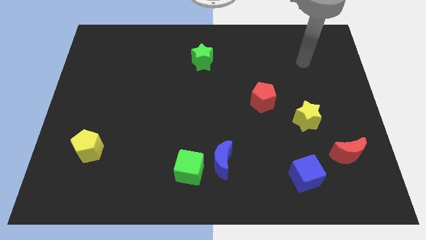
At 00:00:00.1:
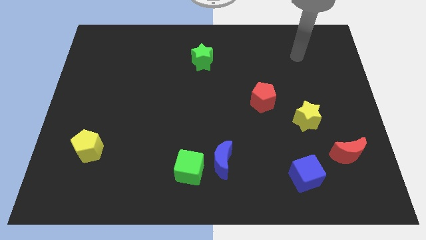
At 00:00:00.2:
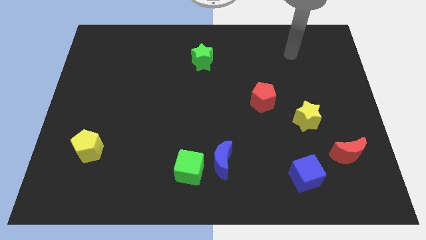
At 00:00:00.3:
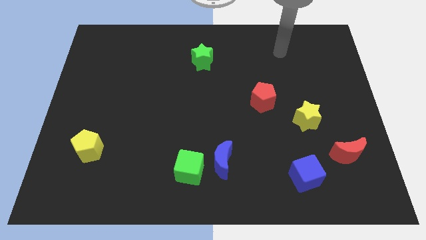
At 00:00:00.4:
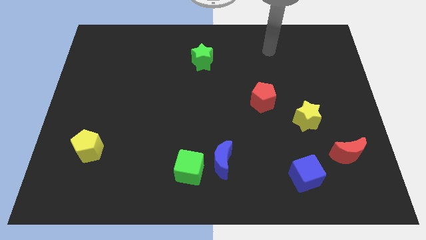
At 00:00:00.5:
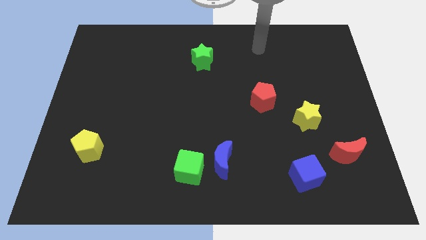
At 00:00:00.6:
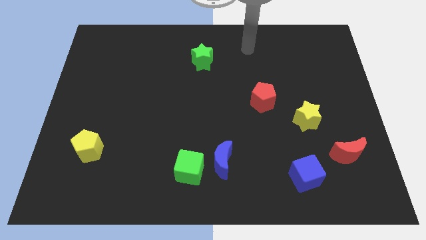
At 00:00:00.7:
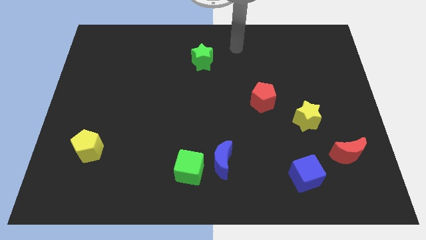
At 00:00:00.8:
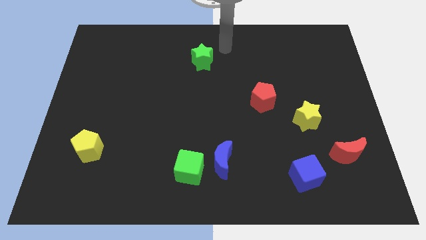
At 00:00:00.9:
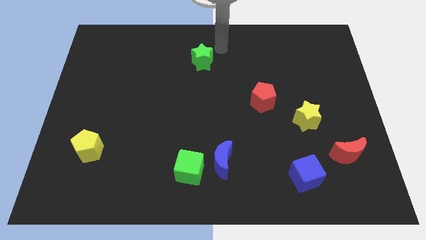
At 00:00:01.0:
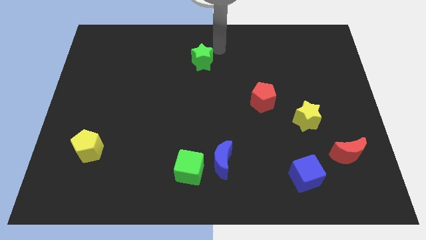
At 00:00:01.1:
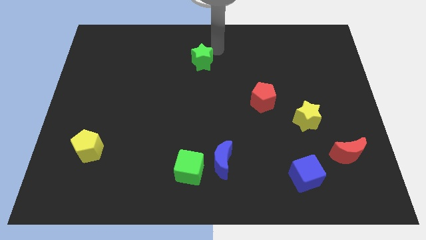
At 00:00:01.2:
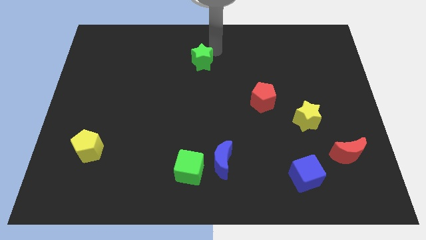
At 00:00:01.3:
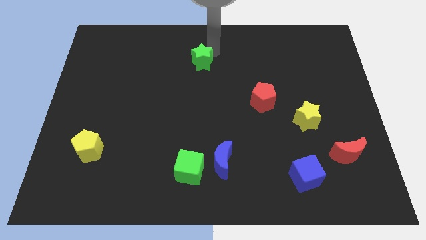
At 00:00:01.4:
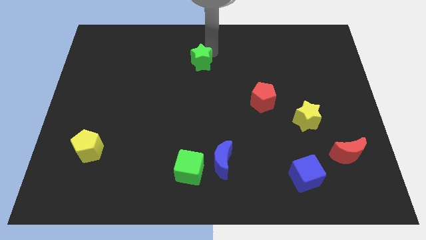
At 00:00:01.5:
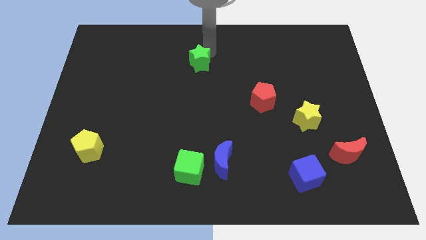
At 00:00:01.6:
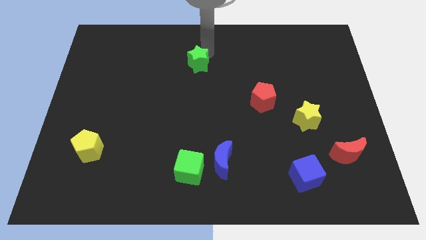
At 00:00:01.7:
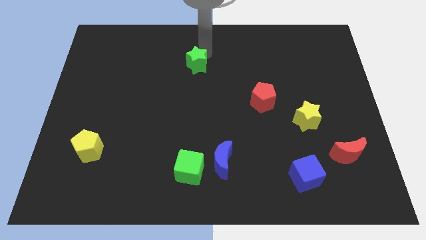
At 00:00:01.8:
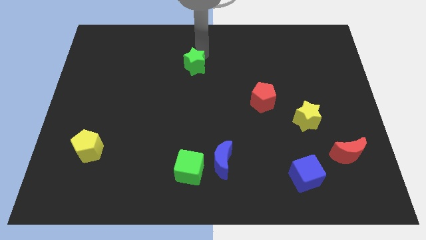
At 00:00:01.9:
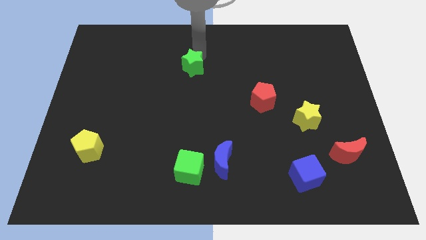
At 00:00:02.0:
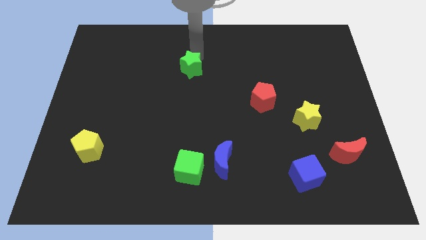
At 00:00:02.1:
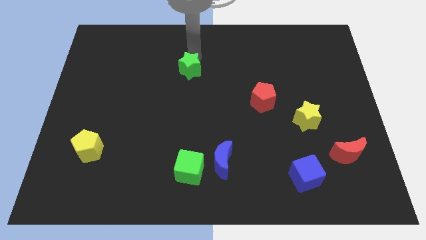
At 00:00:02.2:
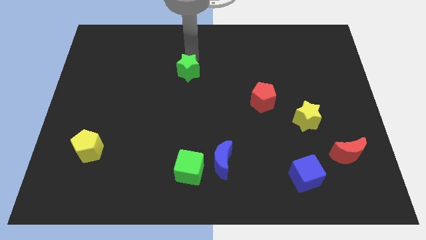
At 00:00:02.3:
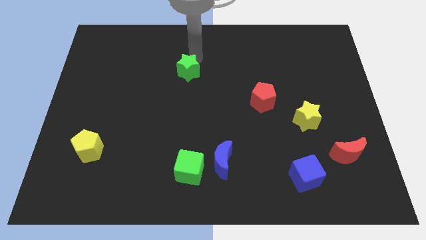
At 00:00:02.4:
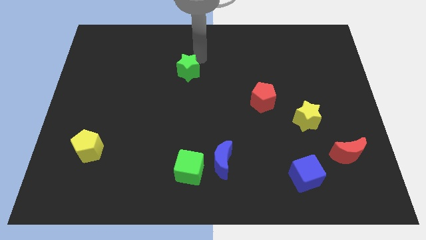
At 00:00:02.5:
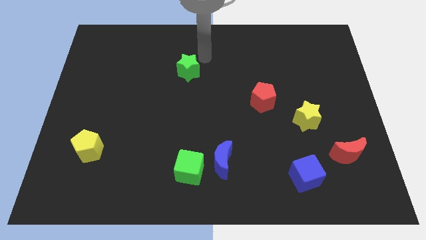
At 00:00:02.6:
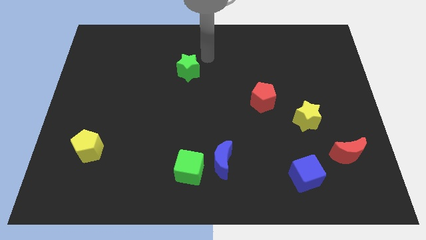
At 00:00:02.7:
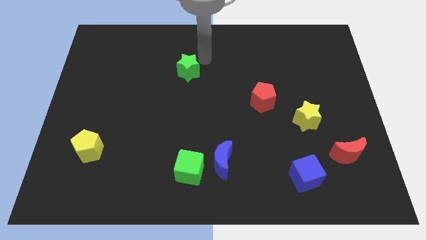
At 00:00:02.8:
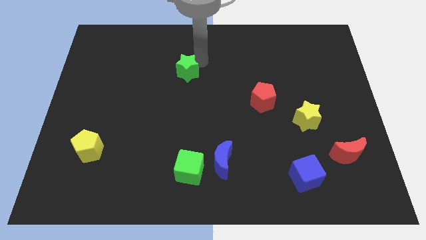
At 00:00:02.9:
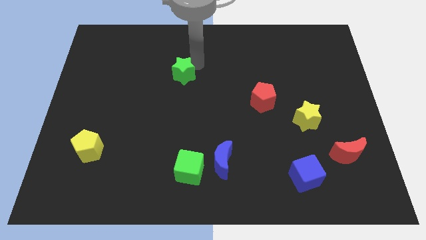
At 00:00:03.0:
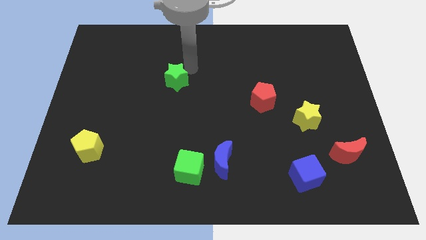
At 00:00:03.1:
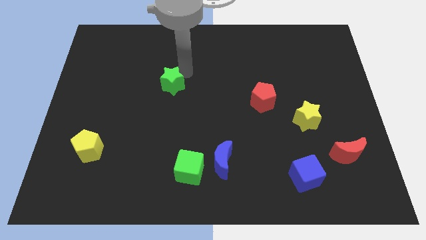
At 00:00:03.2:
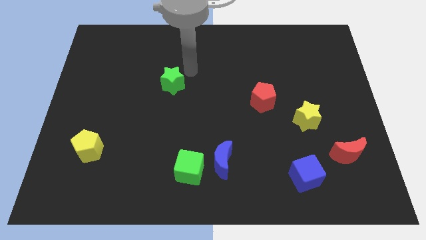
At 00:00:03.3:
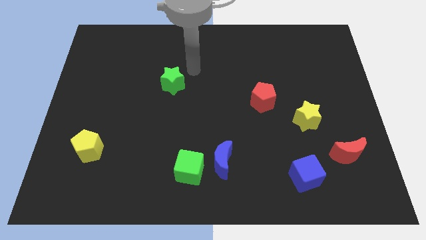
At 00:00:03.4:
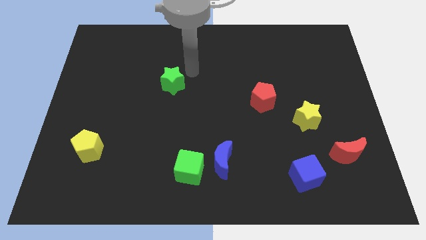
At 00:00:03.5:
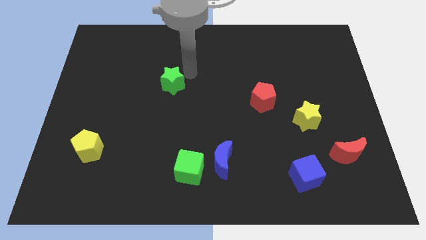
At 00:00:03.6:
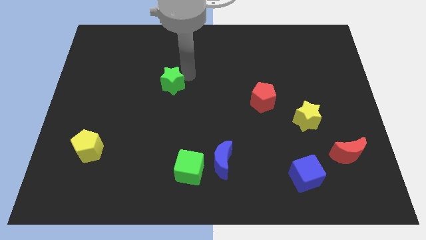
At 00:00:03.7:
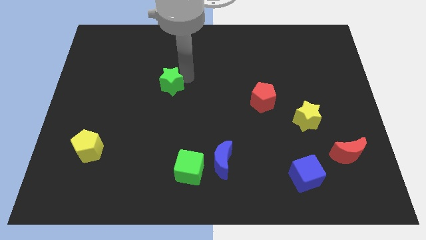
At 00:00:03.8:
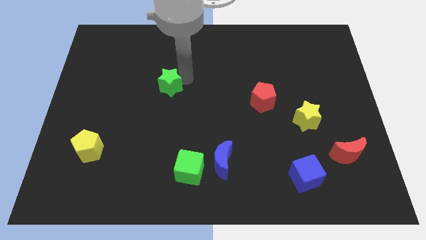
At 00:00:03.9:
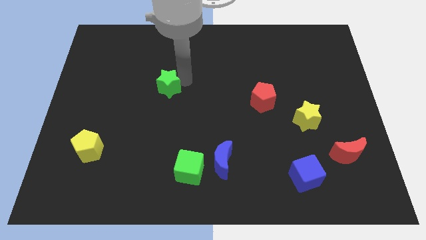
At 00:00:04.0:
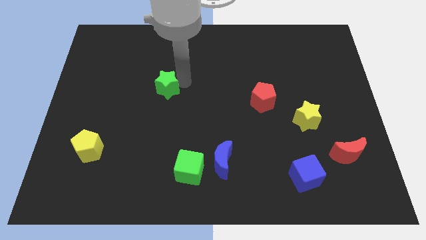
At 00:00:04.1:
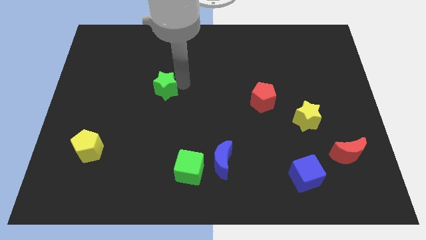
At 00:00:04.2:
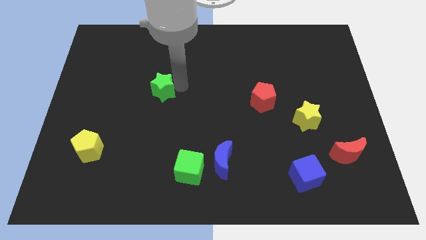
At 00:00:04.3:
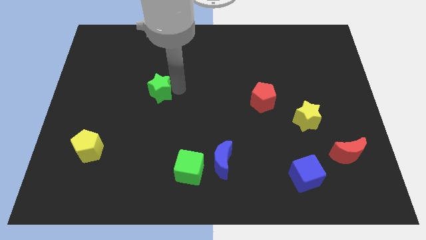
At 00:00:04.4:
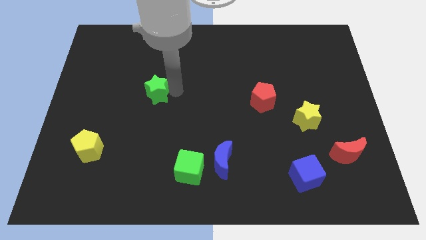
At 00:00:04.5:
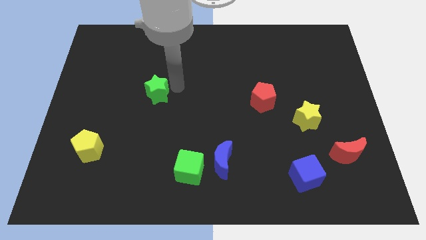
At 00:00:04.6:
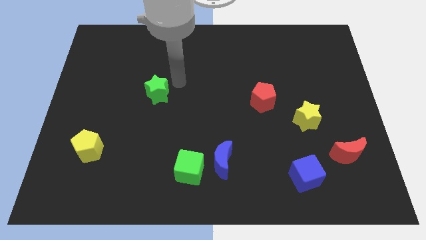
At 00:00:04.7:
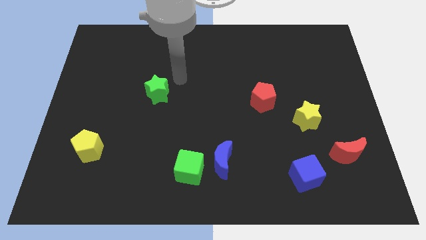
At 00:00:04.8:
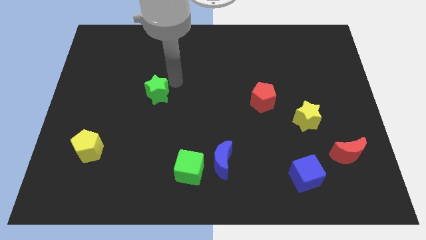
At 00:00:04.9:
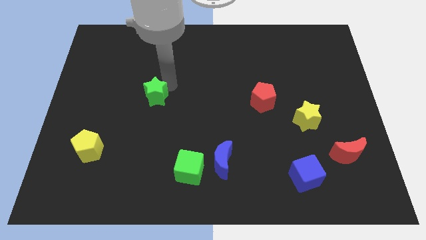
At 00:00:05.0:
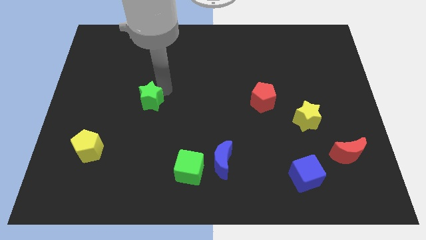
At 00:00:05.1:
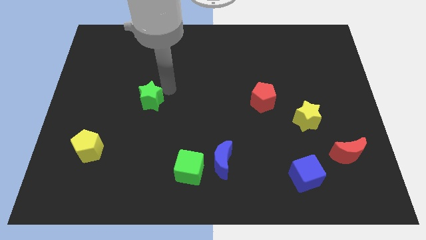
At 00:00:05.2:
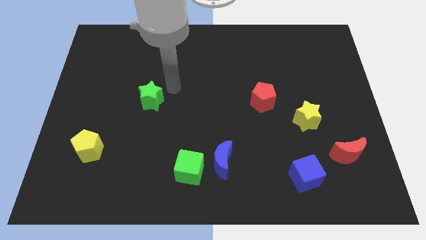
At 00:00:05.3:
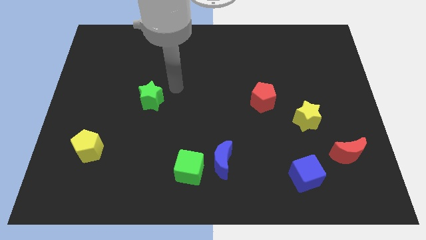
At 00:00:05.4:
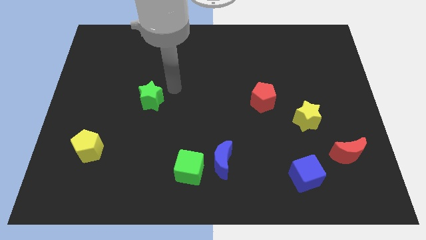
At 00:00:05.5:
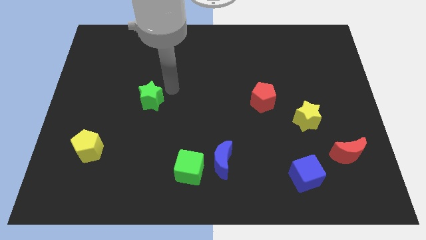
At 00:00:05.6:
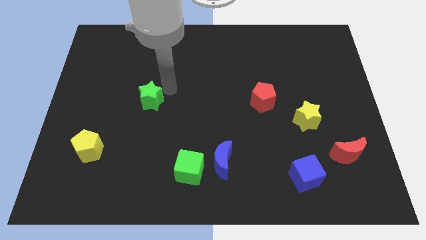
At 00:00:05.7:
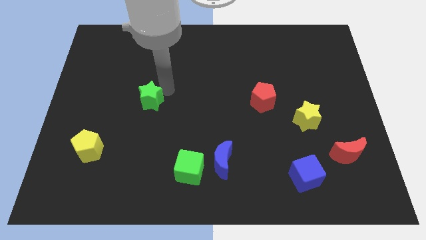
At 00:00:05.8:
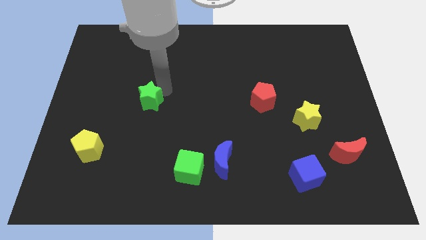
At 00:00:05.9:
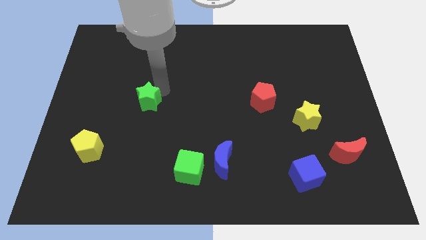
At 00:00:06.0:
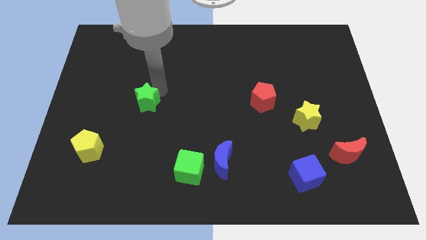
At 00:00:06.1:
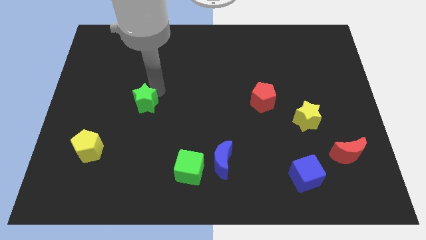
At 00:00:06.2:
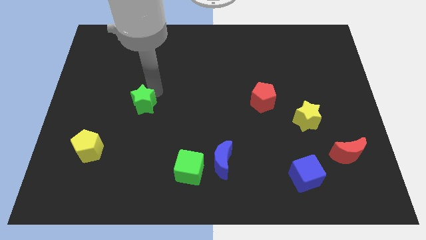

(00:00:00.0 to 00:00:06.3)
move the green star downwards and to the left diagonally

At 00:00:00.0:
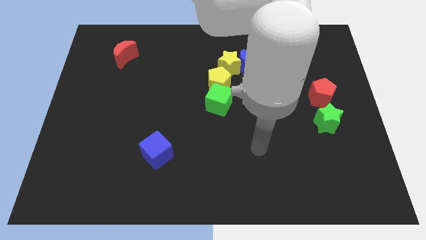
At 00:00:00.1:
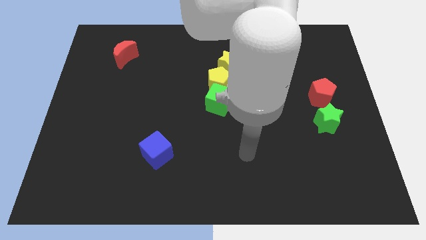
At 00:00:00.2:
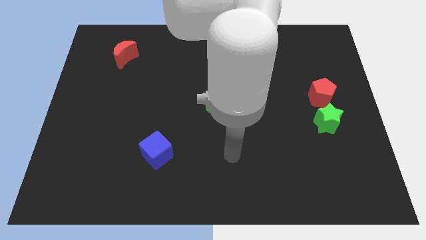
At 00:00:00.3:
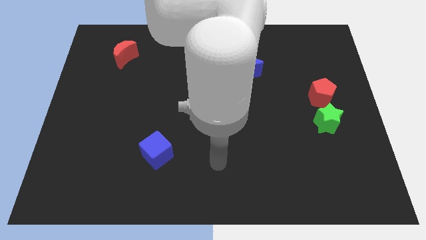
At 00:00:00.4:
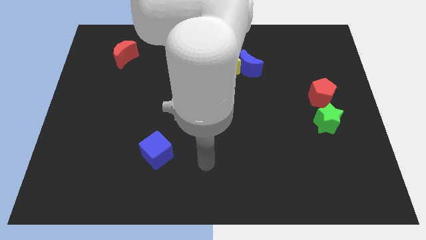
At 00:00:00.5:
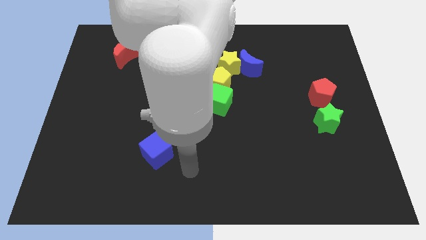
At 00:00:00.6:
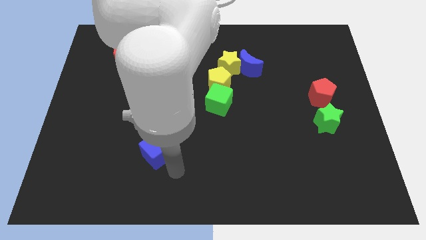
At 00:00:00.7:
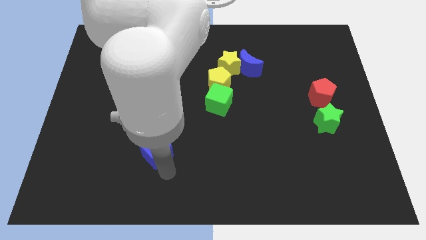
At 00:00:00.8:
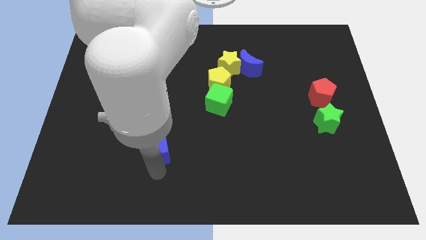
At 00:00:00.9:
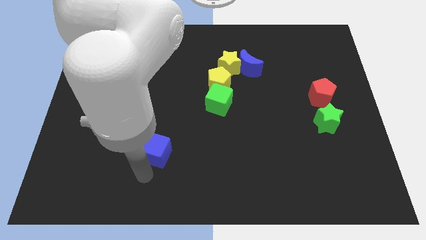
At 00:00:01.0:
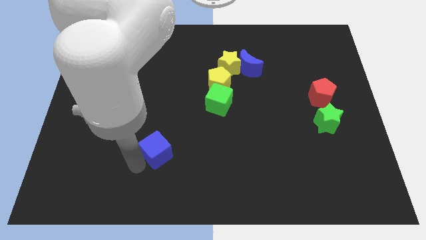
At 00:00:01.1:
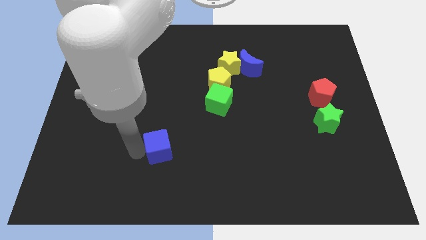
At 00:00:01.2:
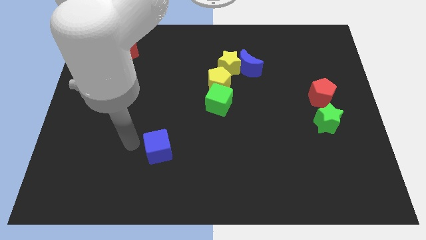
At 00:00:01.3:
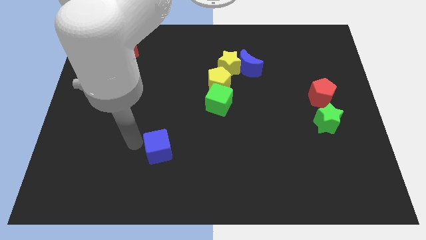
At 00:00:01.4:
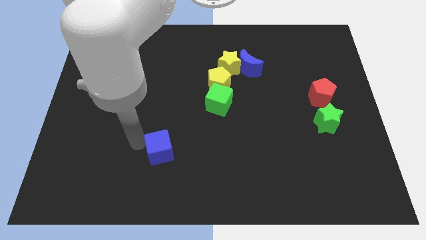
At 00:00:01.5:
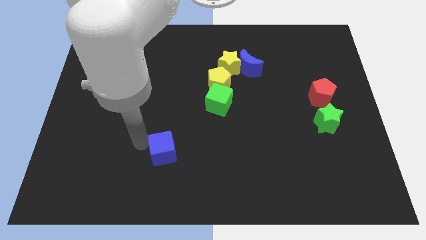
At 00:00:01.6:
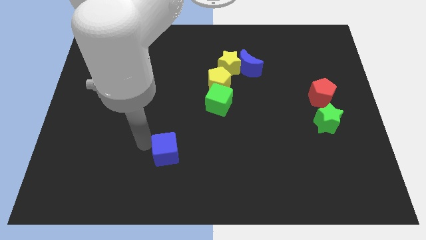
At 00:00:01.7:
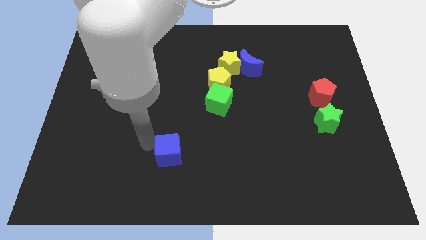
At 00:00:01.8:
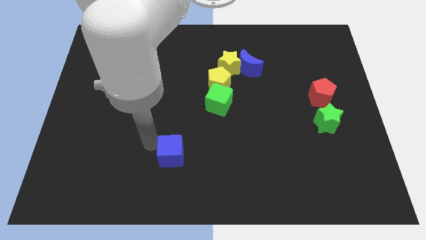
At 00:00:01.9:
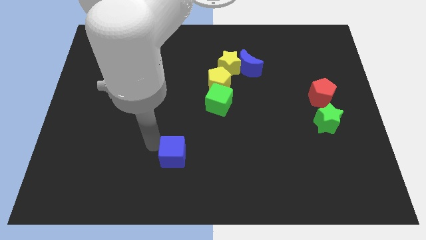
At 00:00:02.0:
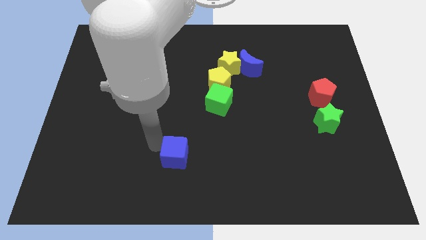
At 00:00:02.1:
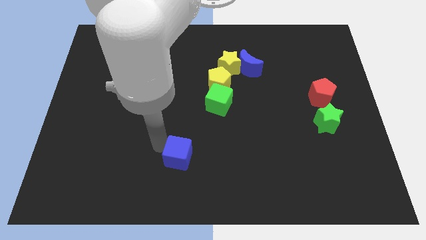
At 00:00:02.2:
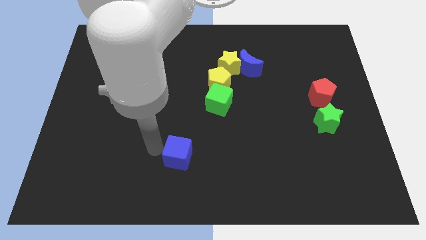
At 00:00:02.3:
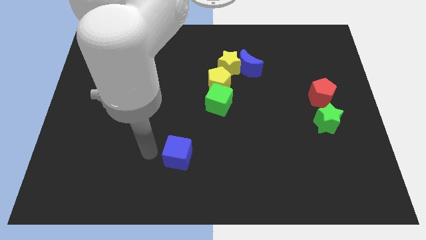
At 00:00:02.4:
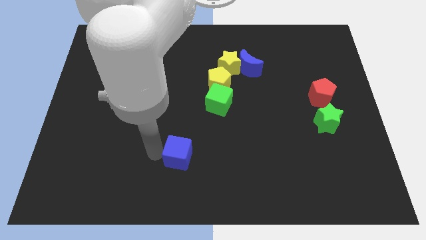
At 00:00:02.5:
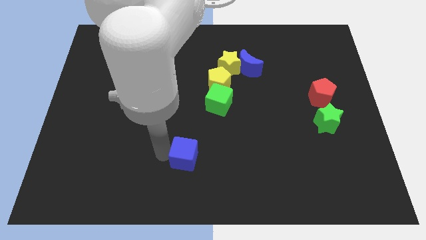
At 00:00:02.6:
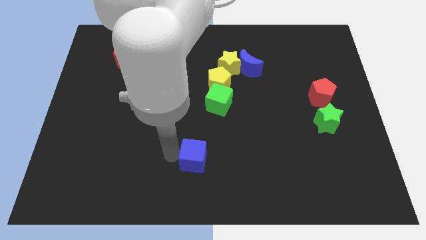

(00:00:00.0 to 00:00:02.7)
move the blue cube to the right somewhat
